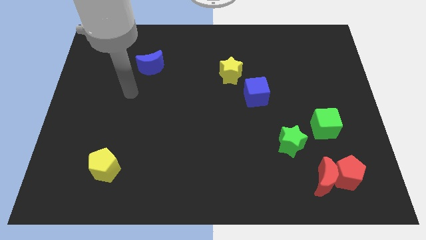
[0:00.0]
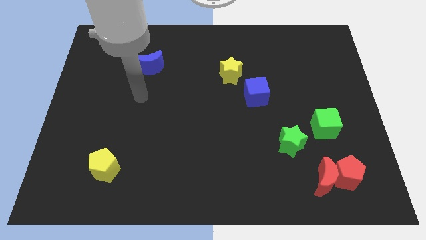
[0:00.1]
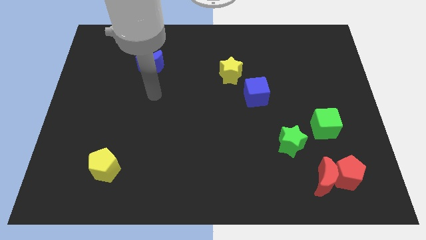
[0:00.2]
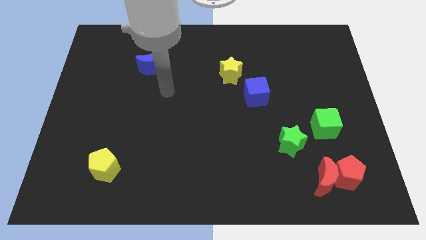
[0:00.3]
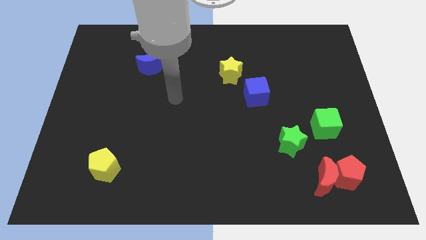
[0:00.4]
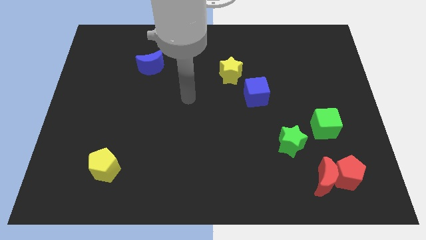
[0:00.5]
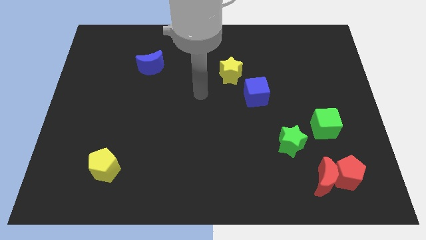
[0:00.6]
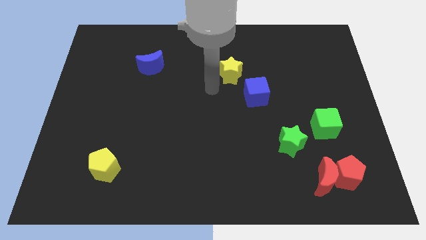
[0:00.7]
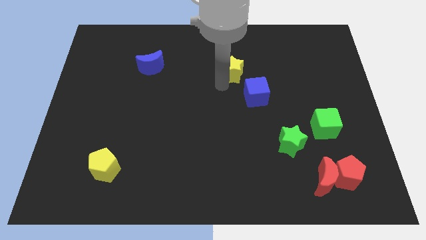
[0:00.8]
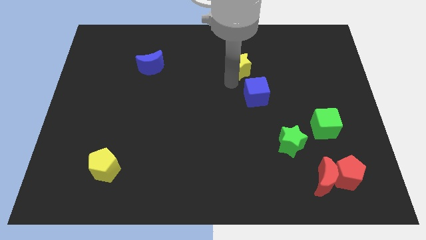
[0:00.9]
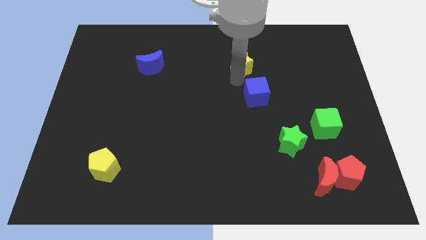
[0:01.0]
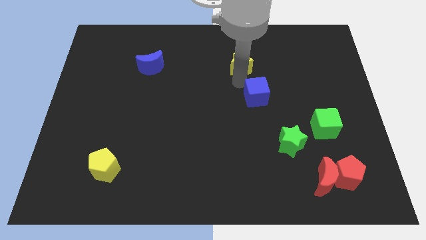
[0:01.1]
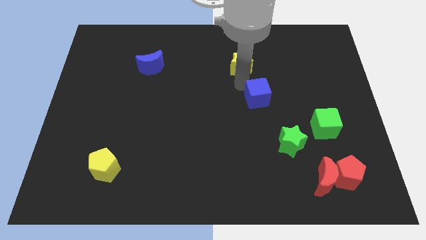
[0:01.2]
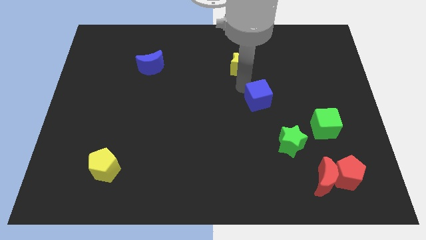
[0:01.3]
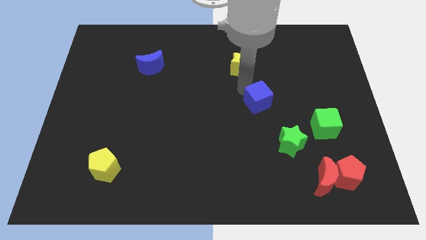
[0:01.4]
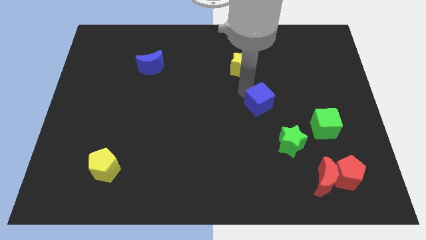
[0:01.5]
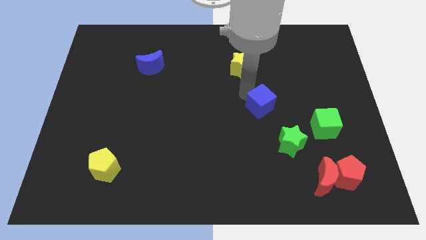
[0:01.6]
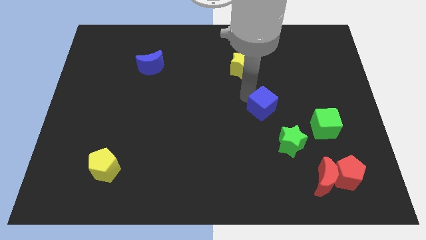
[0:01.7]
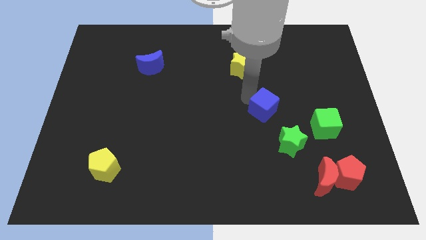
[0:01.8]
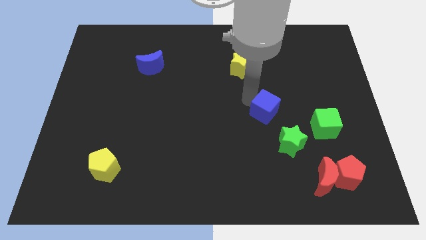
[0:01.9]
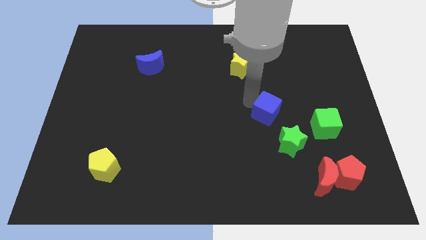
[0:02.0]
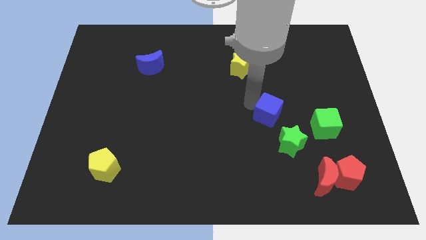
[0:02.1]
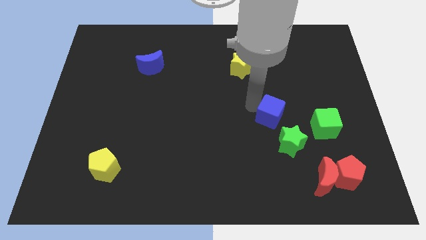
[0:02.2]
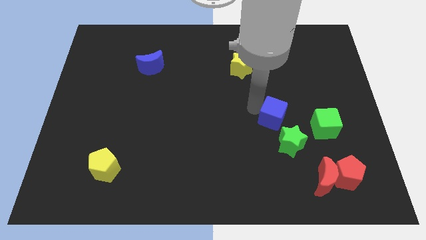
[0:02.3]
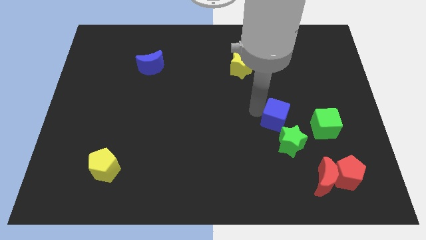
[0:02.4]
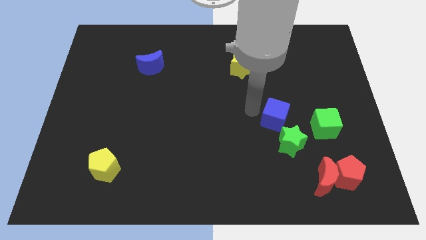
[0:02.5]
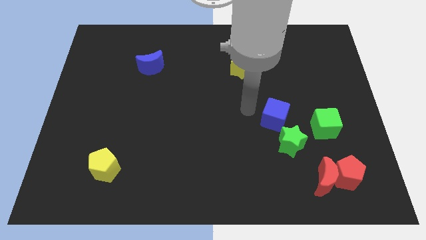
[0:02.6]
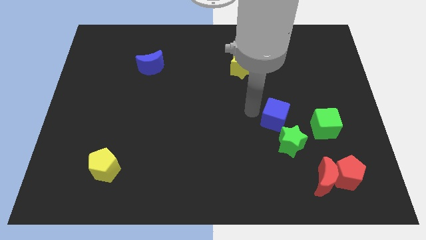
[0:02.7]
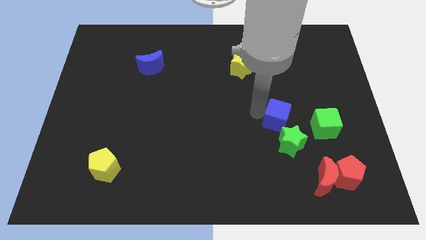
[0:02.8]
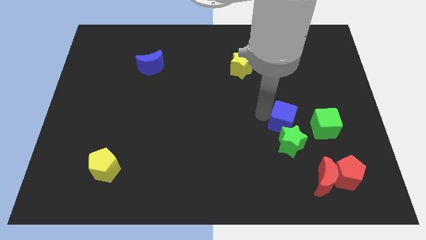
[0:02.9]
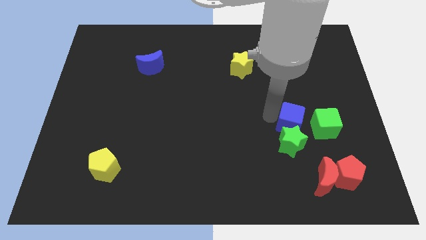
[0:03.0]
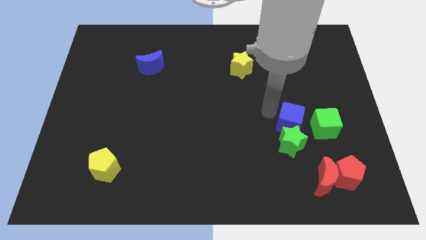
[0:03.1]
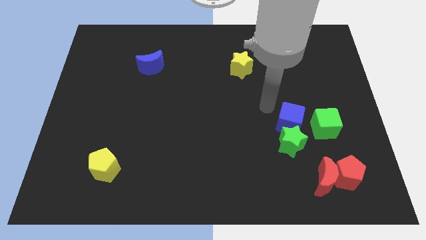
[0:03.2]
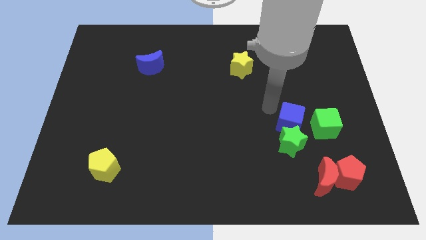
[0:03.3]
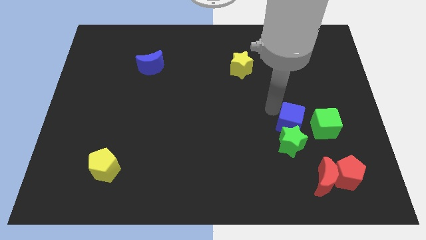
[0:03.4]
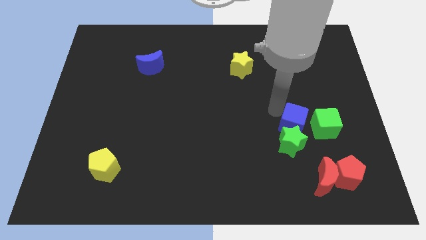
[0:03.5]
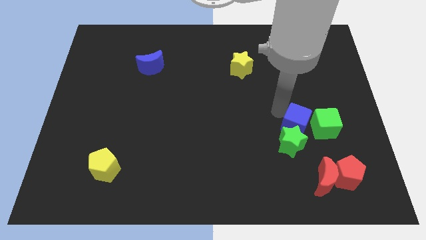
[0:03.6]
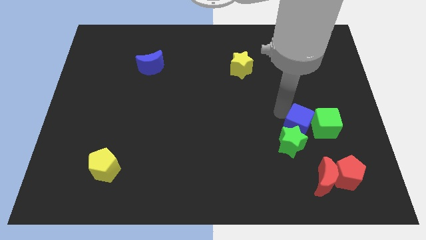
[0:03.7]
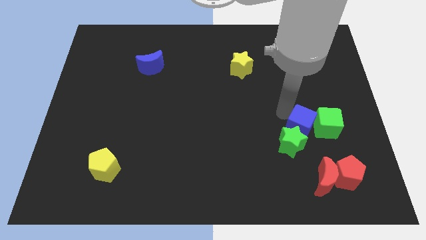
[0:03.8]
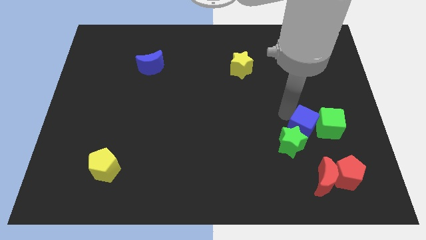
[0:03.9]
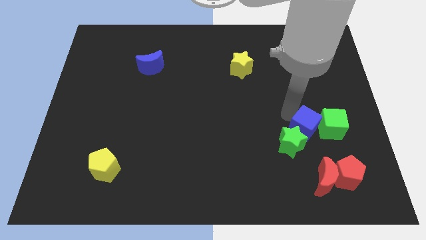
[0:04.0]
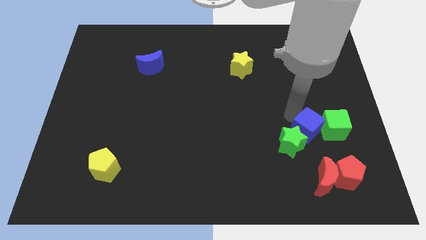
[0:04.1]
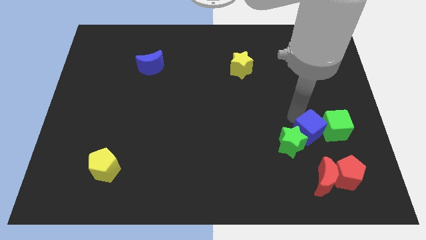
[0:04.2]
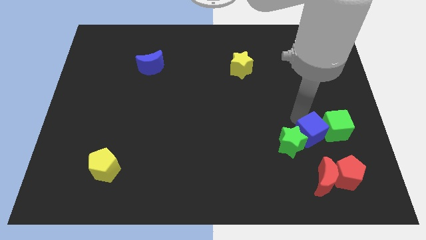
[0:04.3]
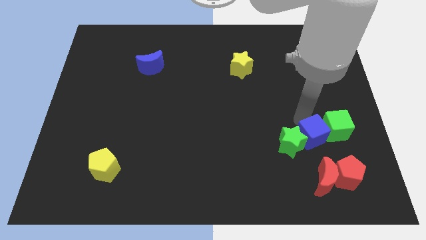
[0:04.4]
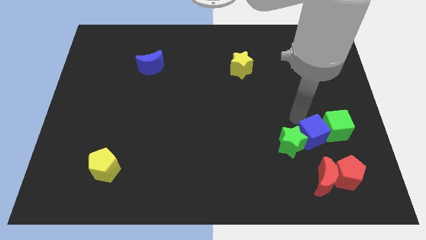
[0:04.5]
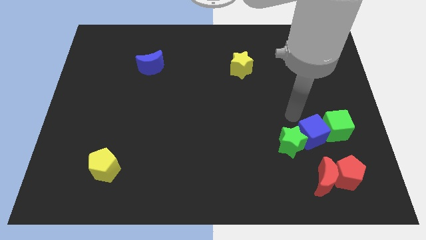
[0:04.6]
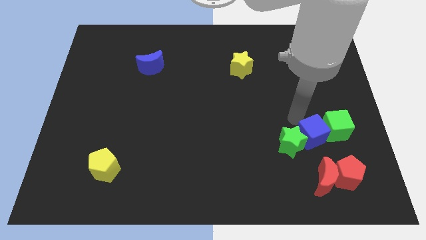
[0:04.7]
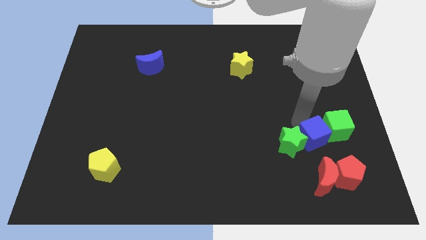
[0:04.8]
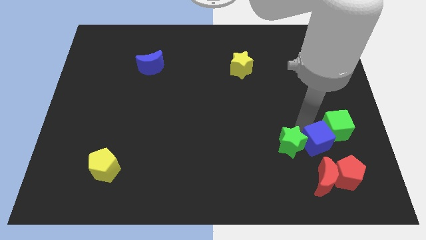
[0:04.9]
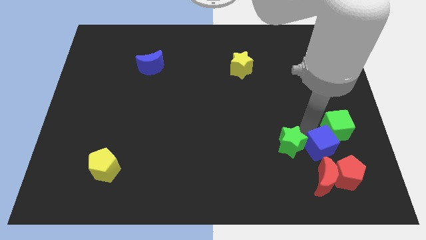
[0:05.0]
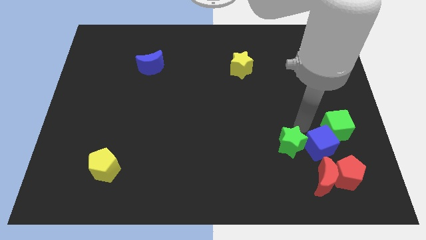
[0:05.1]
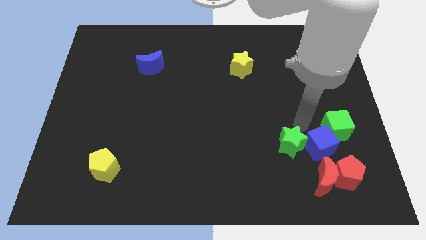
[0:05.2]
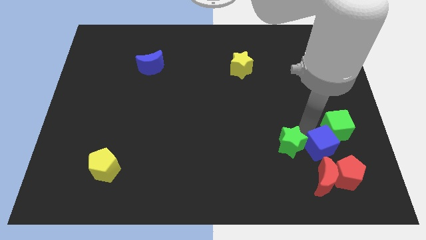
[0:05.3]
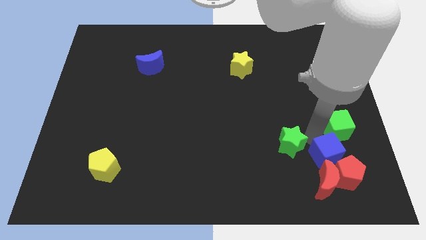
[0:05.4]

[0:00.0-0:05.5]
move the blue cube close to the red pentagon
